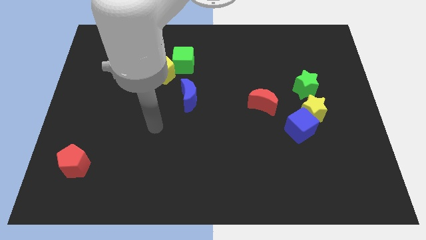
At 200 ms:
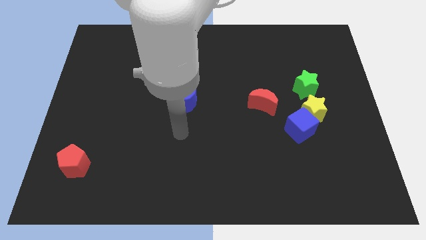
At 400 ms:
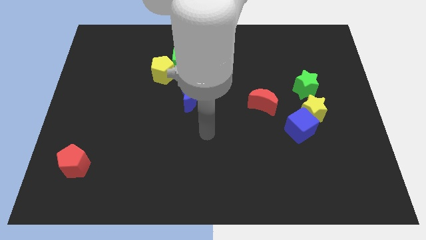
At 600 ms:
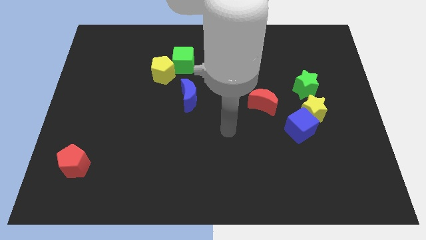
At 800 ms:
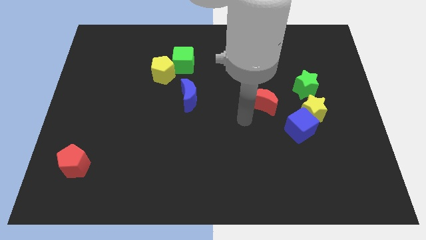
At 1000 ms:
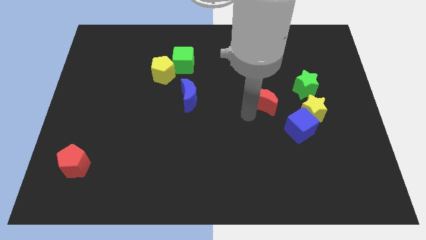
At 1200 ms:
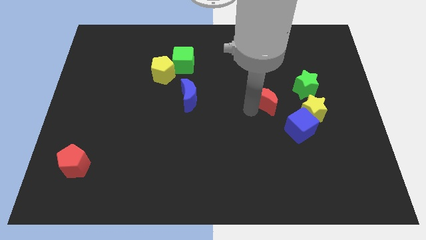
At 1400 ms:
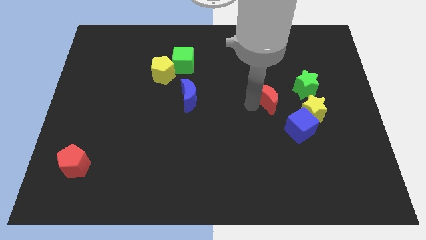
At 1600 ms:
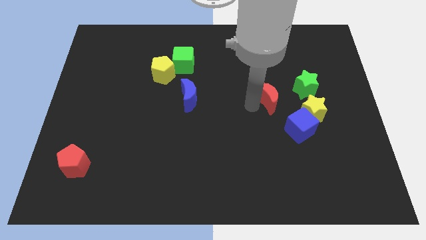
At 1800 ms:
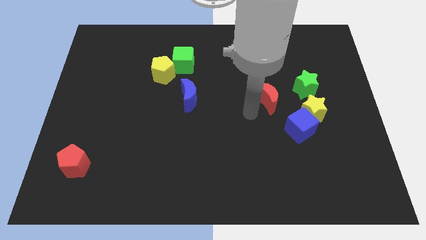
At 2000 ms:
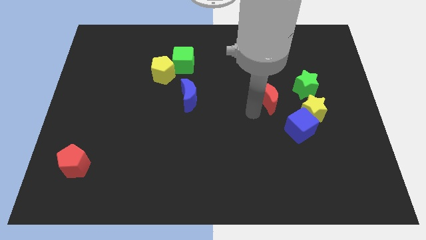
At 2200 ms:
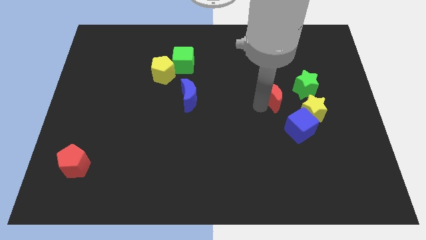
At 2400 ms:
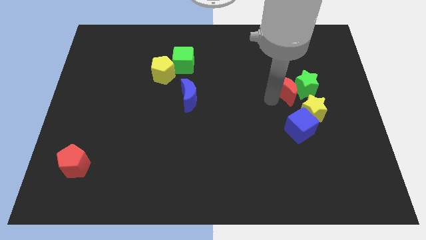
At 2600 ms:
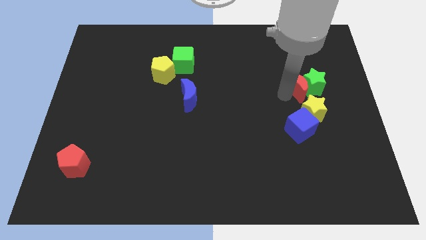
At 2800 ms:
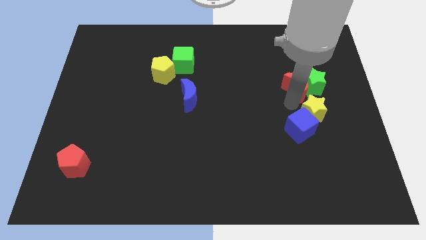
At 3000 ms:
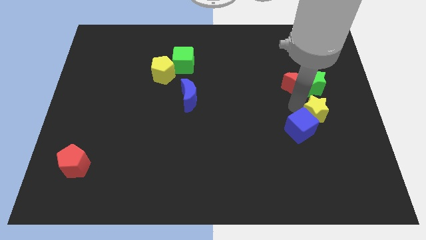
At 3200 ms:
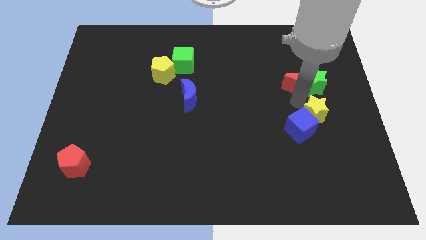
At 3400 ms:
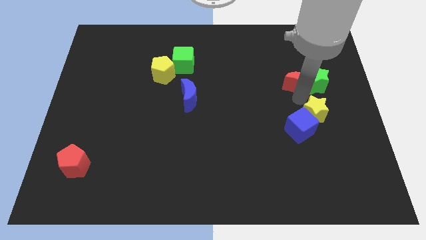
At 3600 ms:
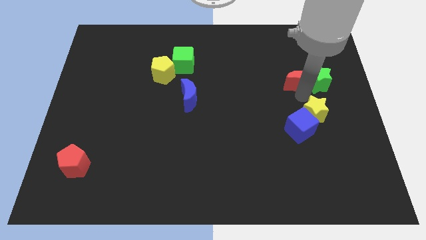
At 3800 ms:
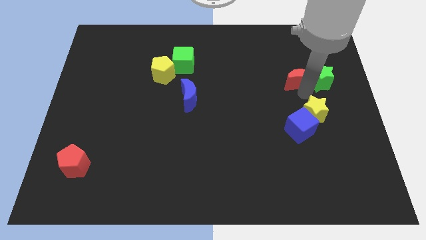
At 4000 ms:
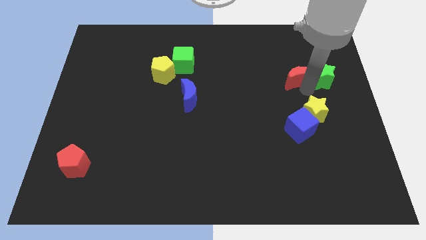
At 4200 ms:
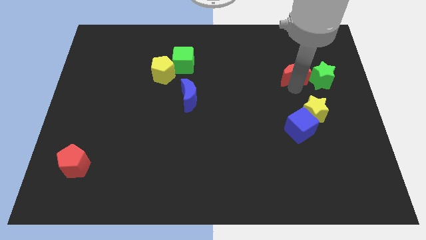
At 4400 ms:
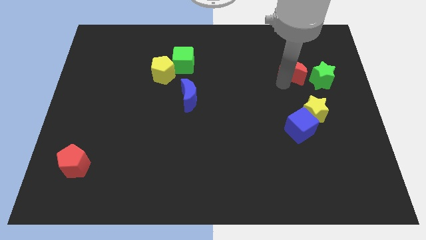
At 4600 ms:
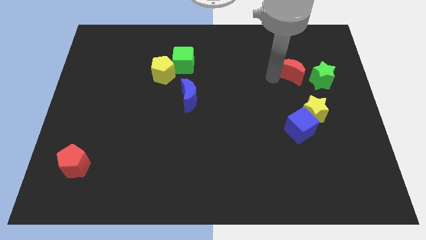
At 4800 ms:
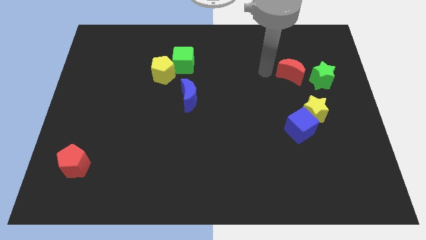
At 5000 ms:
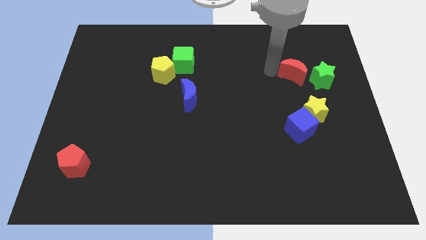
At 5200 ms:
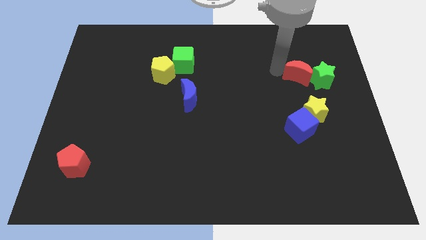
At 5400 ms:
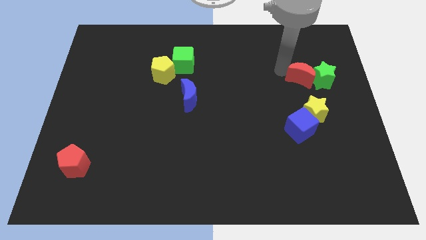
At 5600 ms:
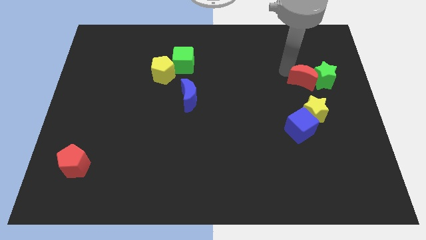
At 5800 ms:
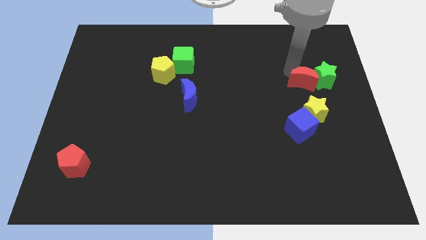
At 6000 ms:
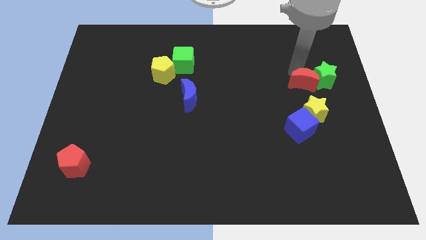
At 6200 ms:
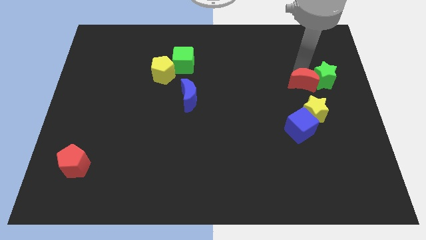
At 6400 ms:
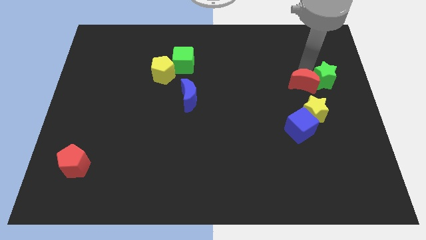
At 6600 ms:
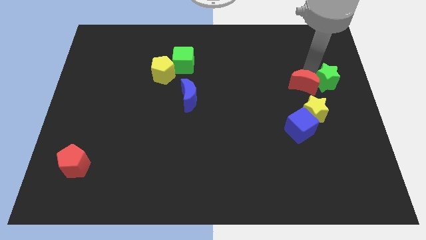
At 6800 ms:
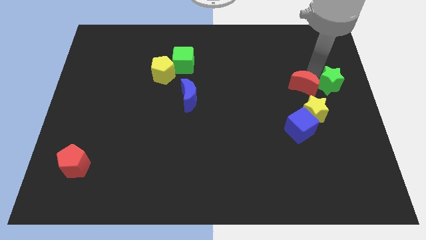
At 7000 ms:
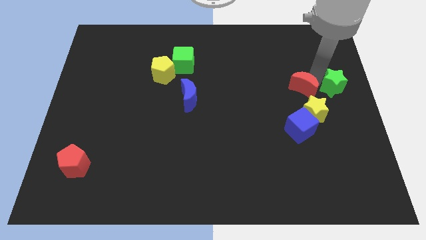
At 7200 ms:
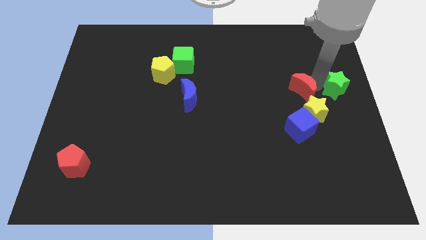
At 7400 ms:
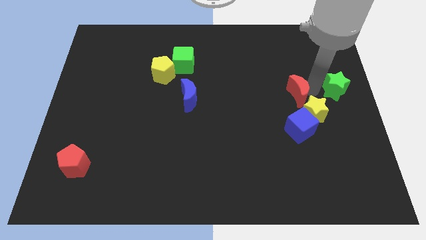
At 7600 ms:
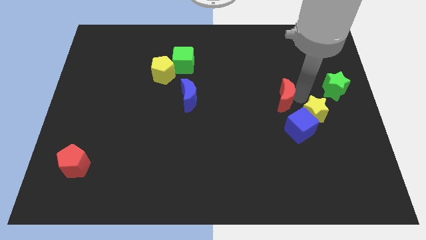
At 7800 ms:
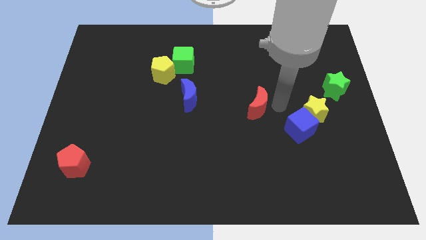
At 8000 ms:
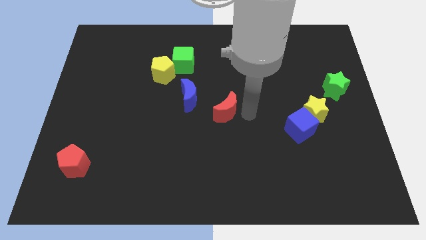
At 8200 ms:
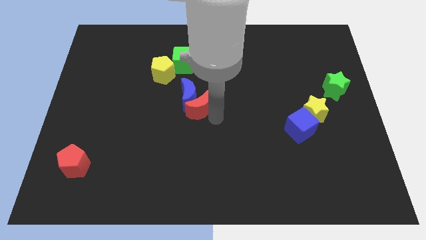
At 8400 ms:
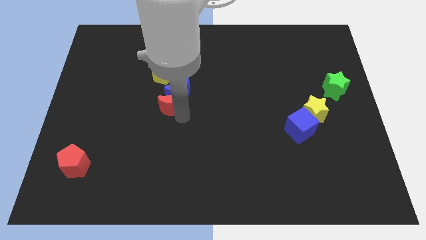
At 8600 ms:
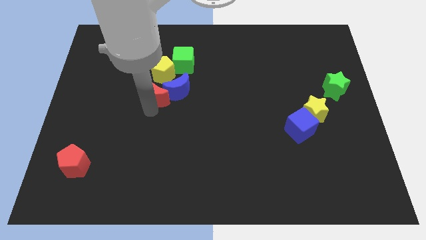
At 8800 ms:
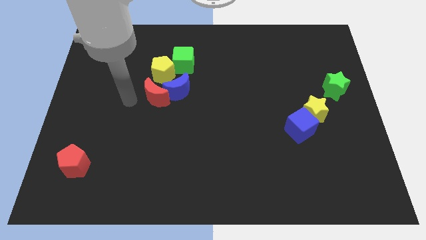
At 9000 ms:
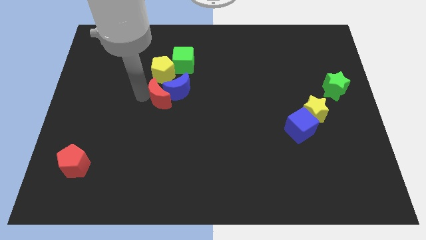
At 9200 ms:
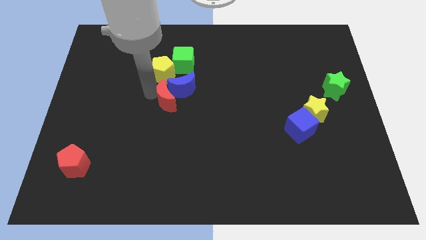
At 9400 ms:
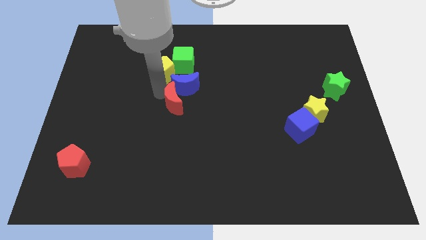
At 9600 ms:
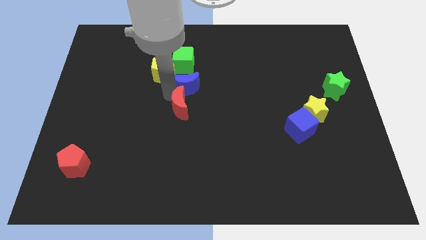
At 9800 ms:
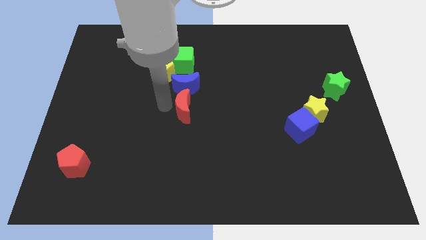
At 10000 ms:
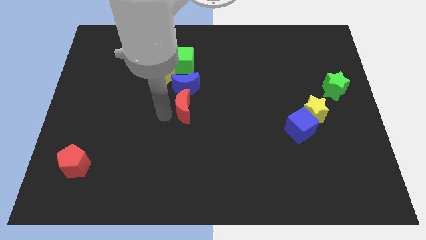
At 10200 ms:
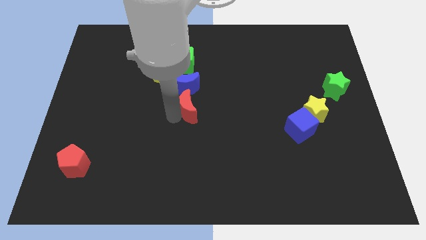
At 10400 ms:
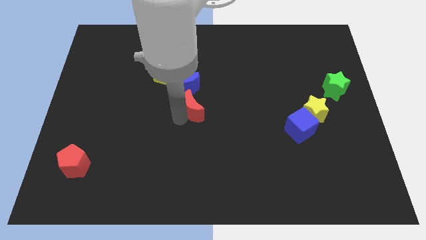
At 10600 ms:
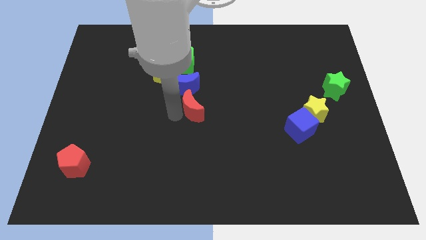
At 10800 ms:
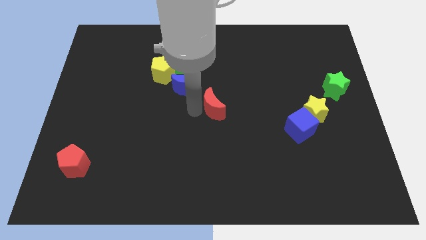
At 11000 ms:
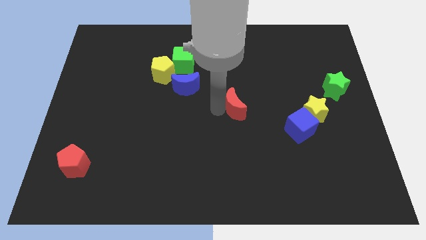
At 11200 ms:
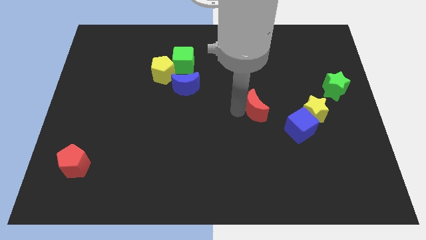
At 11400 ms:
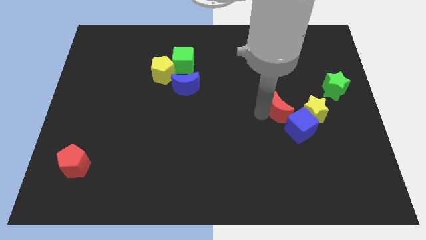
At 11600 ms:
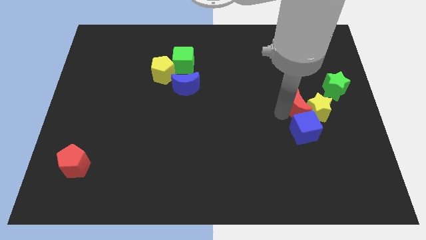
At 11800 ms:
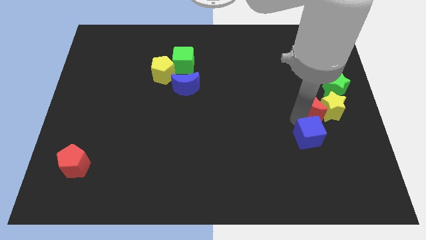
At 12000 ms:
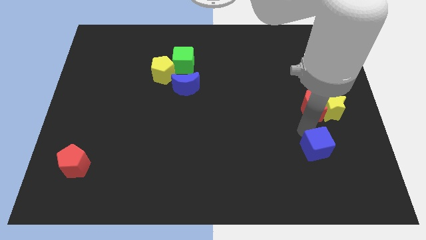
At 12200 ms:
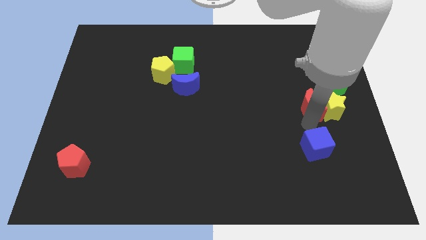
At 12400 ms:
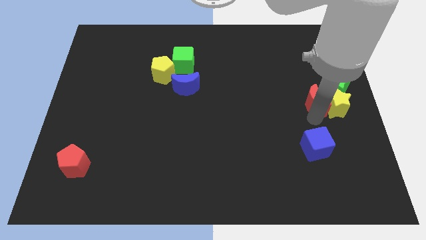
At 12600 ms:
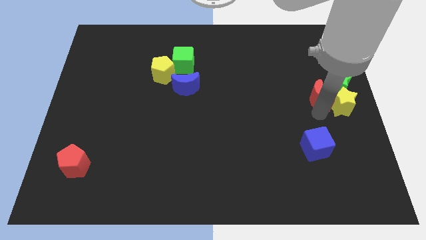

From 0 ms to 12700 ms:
move the red moon to the right side of the board

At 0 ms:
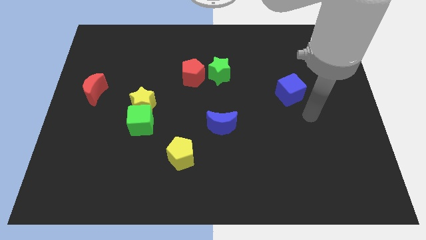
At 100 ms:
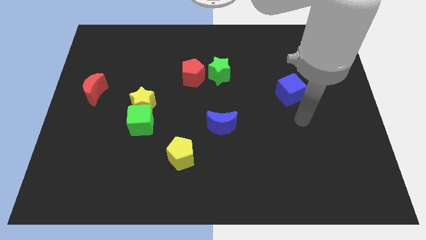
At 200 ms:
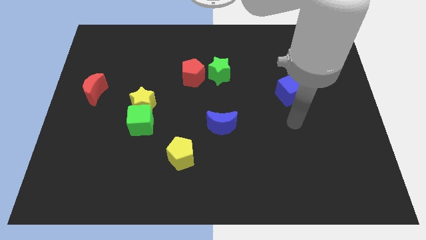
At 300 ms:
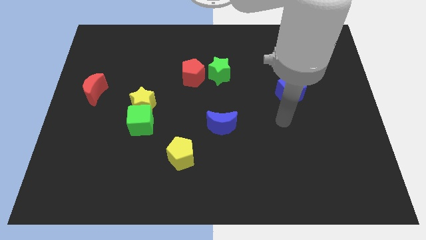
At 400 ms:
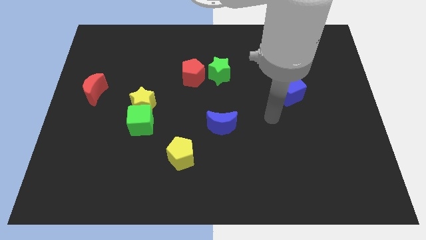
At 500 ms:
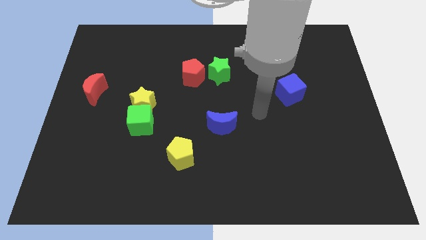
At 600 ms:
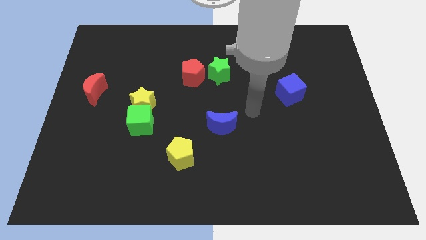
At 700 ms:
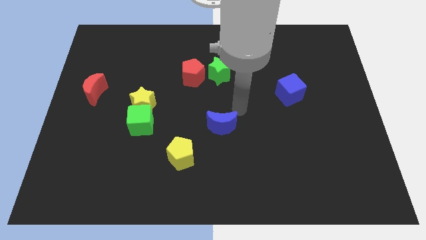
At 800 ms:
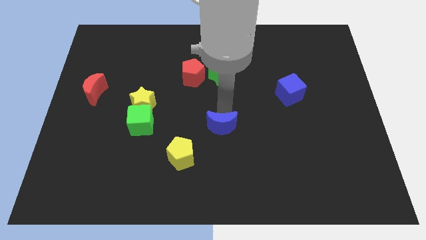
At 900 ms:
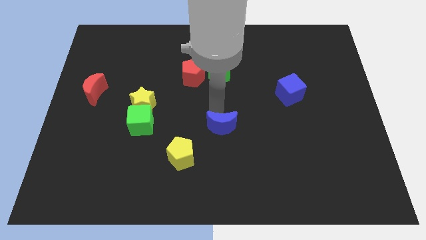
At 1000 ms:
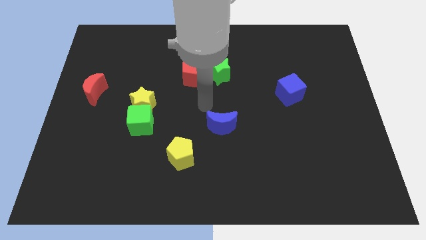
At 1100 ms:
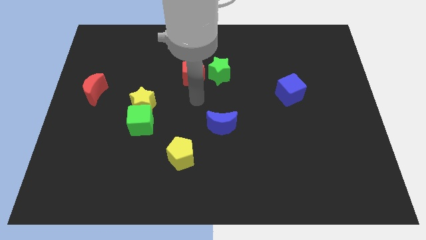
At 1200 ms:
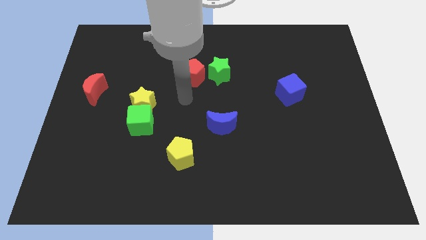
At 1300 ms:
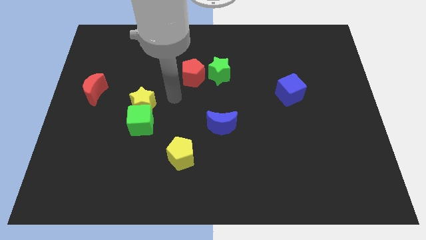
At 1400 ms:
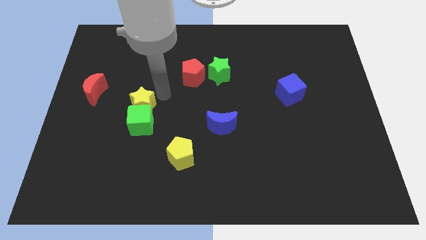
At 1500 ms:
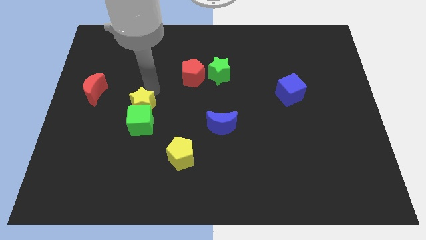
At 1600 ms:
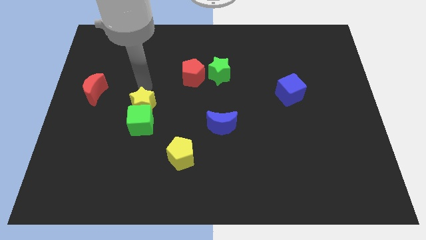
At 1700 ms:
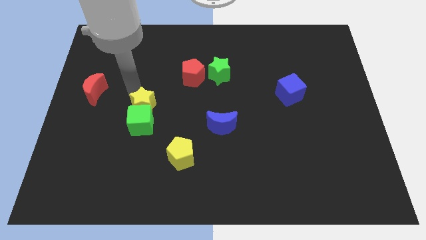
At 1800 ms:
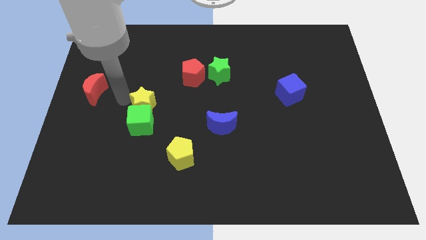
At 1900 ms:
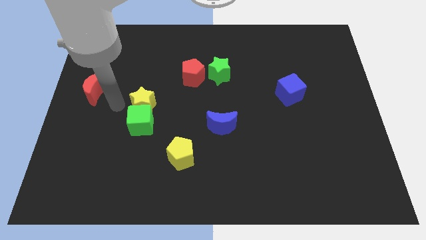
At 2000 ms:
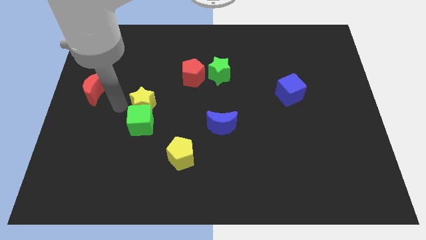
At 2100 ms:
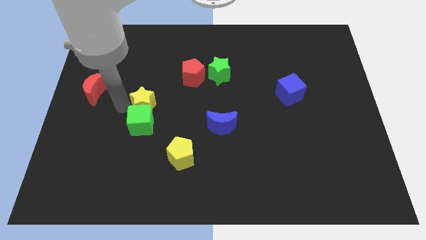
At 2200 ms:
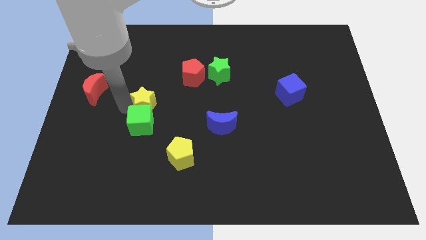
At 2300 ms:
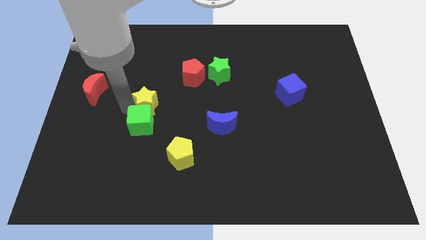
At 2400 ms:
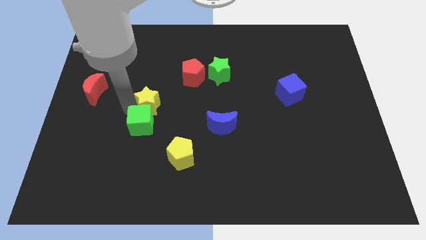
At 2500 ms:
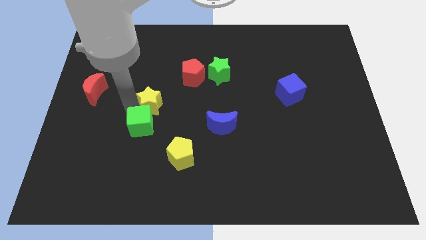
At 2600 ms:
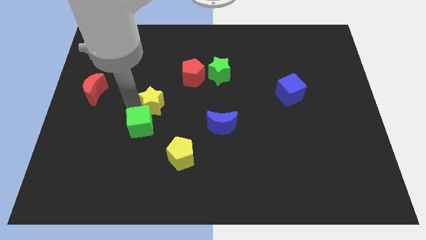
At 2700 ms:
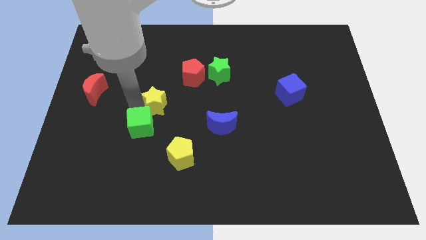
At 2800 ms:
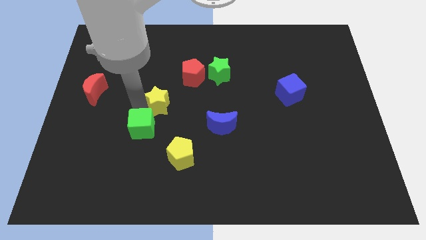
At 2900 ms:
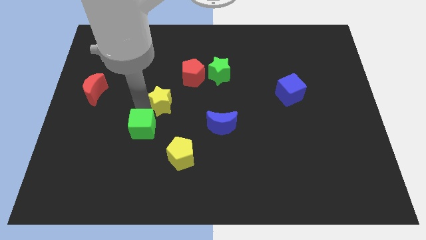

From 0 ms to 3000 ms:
move the yellow star to the center of the board
